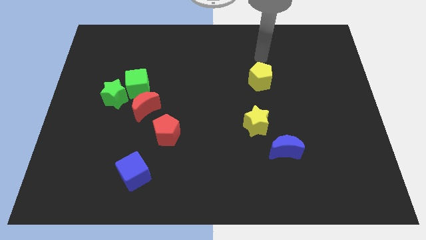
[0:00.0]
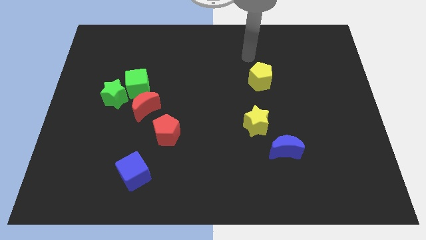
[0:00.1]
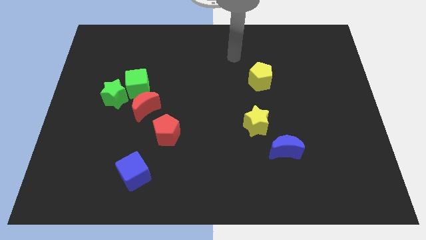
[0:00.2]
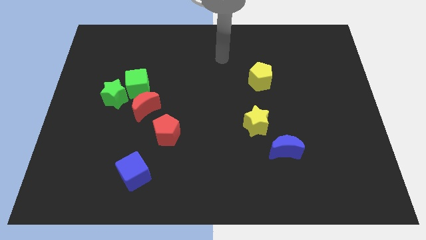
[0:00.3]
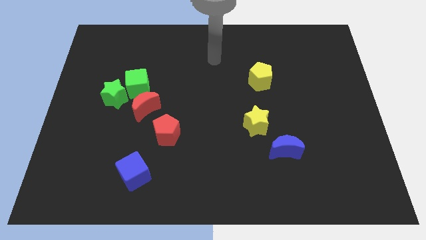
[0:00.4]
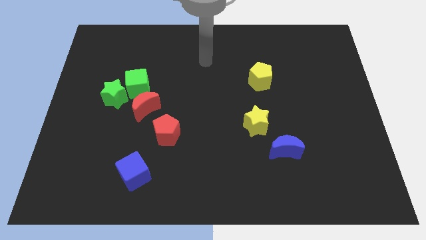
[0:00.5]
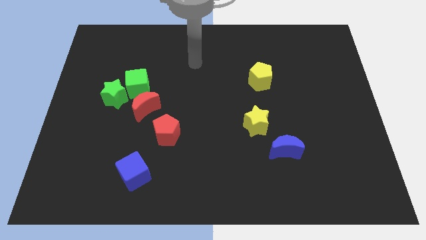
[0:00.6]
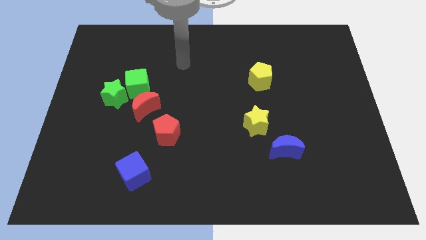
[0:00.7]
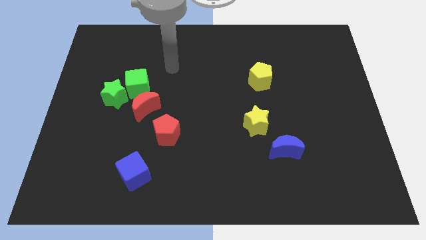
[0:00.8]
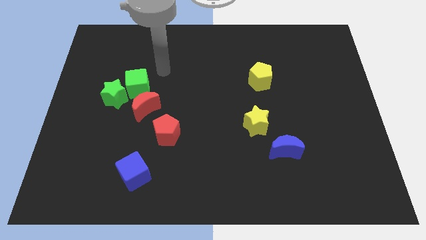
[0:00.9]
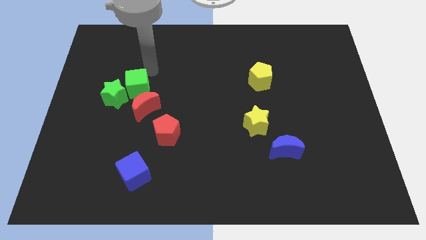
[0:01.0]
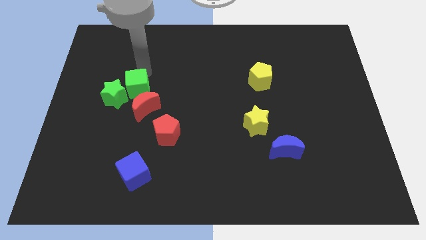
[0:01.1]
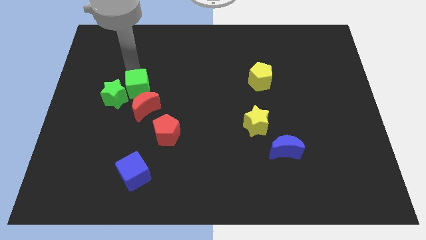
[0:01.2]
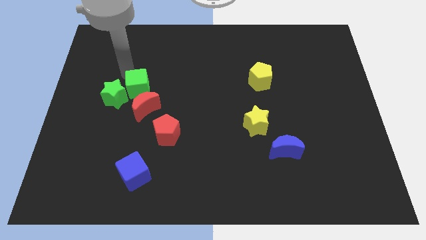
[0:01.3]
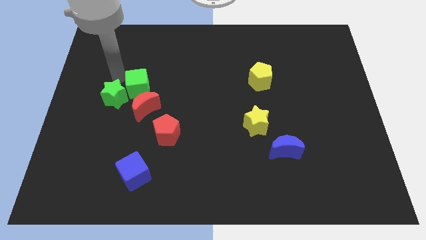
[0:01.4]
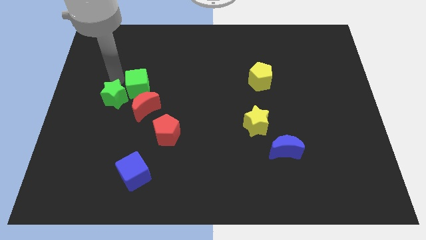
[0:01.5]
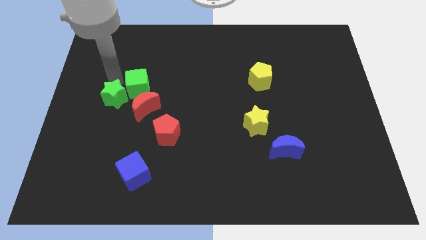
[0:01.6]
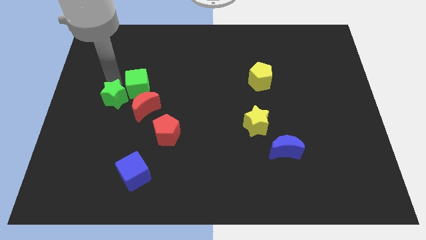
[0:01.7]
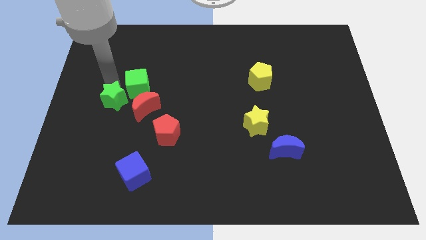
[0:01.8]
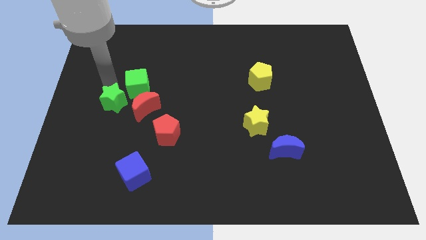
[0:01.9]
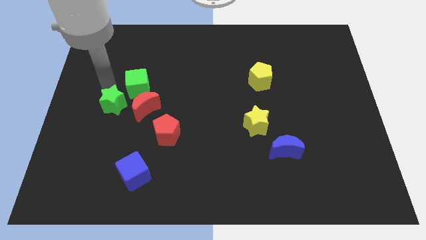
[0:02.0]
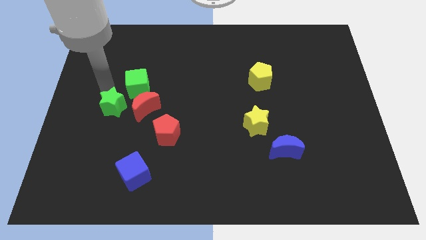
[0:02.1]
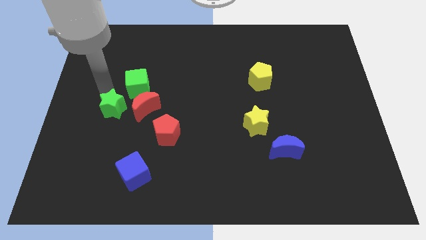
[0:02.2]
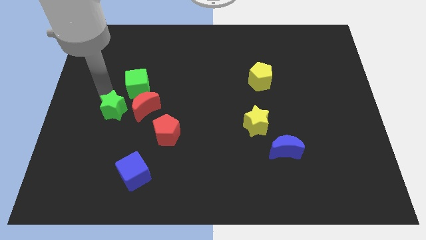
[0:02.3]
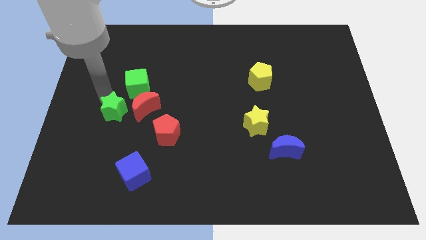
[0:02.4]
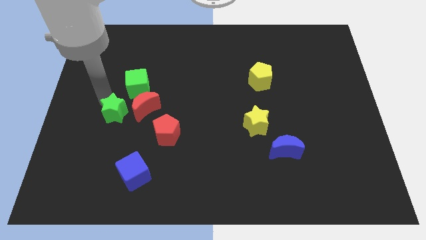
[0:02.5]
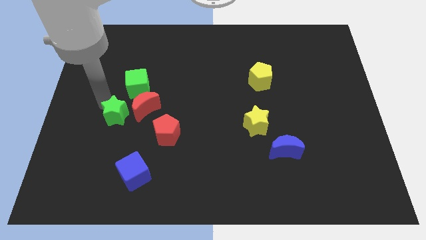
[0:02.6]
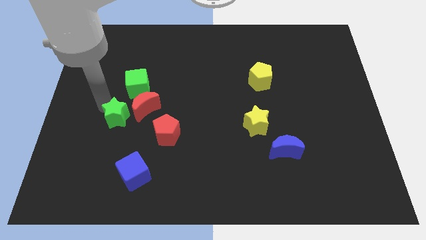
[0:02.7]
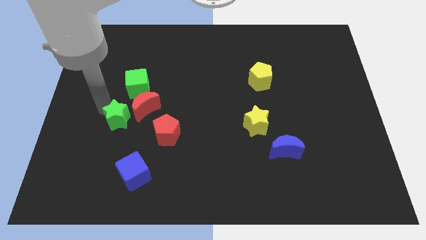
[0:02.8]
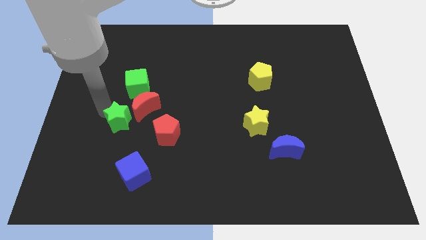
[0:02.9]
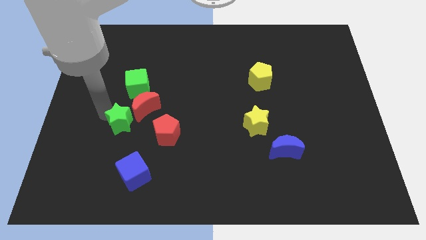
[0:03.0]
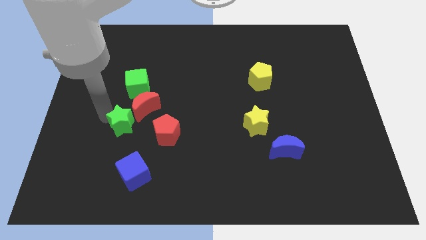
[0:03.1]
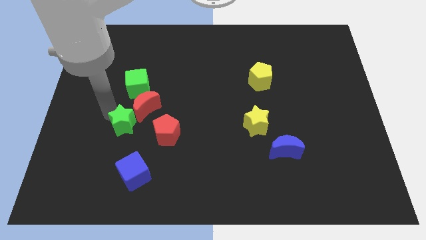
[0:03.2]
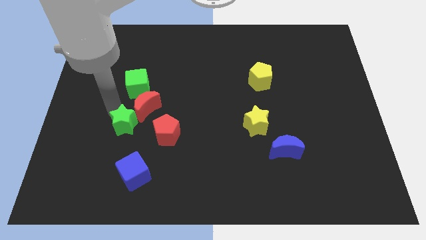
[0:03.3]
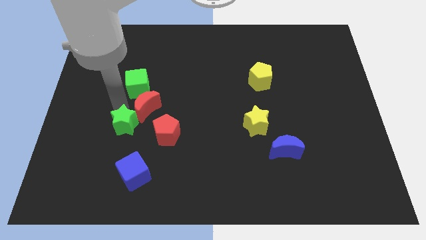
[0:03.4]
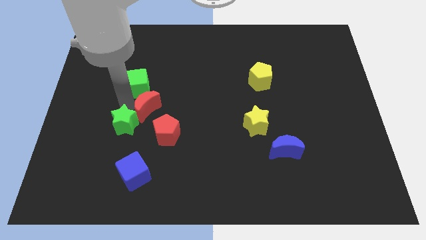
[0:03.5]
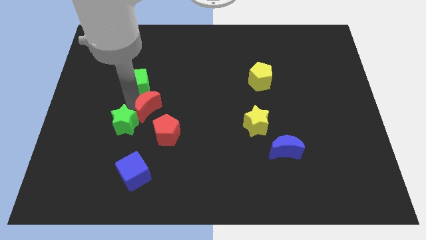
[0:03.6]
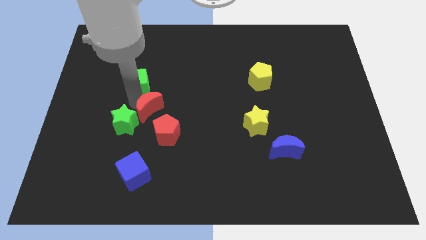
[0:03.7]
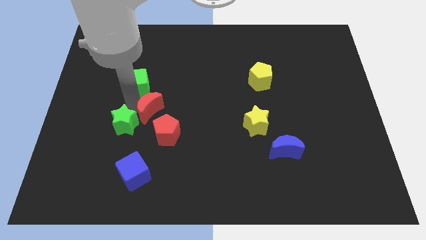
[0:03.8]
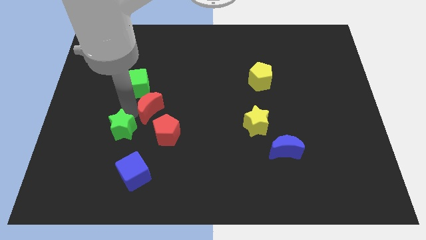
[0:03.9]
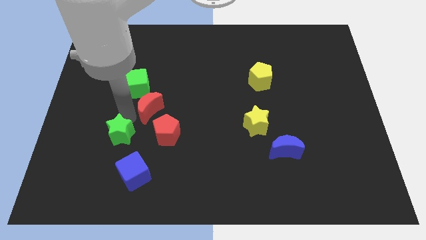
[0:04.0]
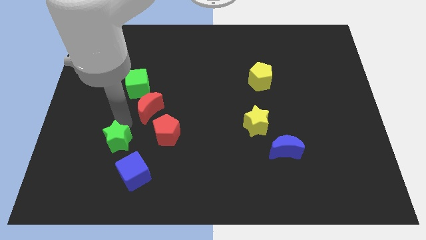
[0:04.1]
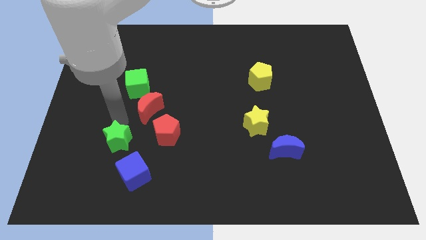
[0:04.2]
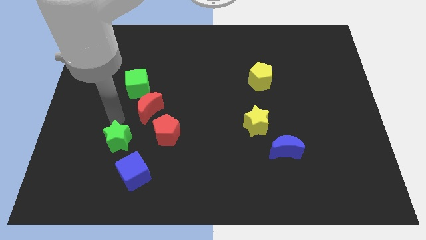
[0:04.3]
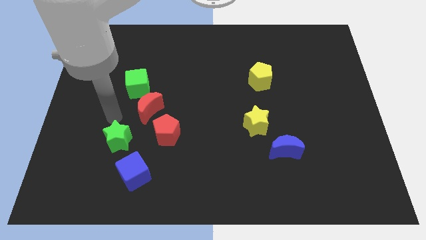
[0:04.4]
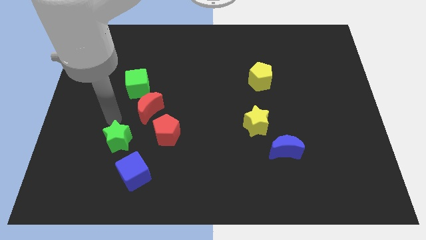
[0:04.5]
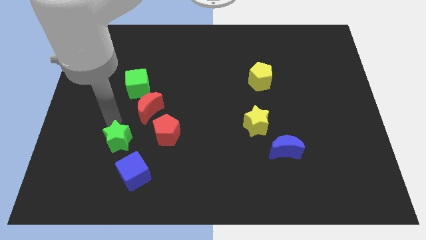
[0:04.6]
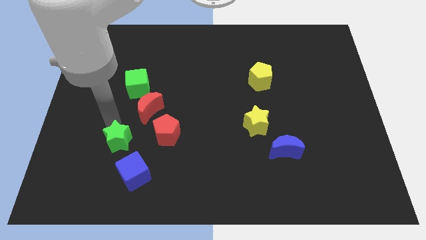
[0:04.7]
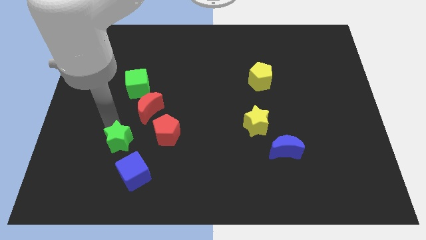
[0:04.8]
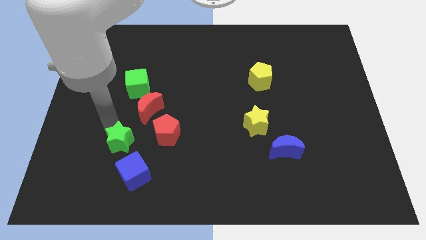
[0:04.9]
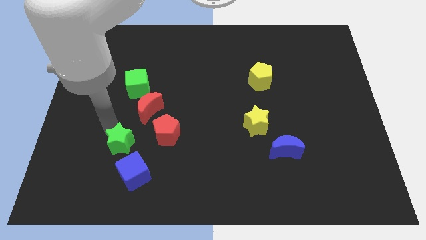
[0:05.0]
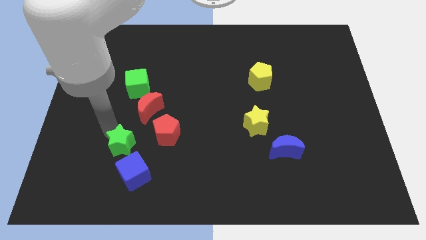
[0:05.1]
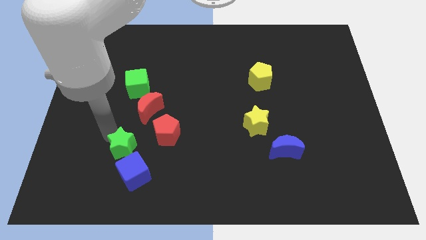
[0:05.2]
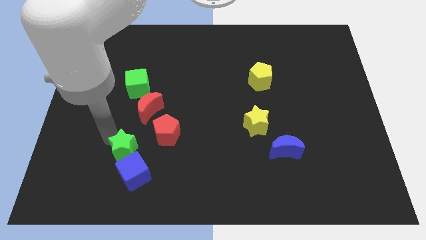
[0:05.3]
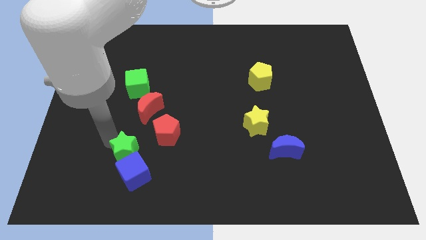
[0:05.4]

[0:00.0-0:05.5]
push the green star next to the blue cube

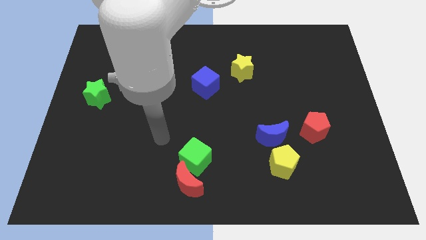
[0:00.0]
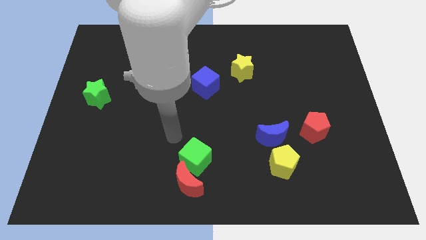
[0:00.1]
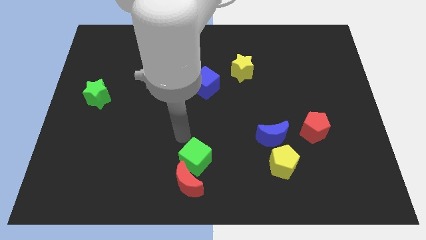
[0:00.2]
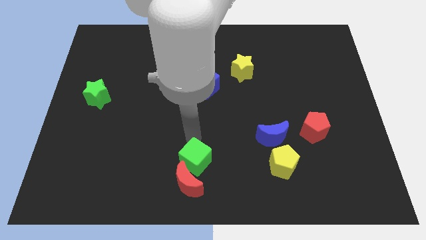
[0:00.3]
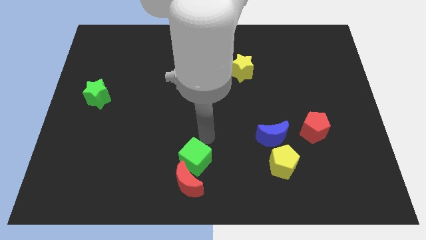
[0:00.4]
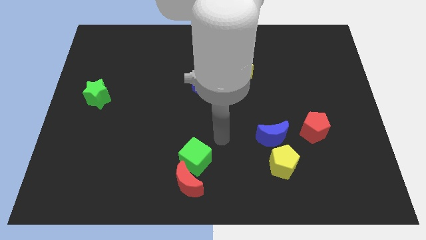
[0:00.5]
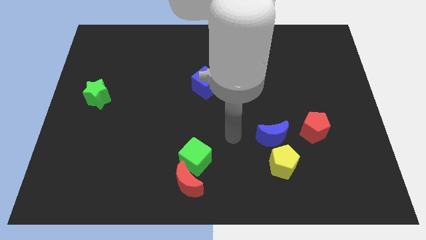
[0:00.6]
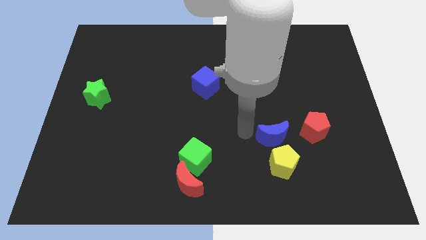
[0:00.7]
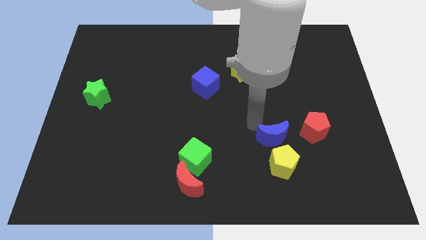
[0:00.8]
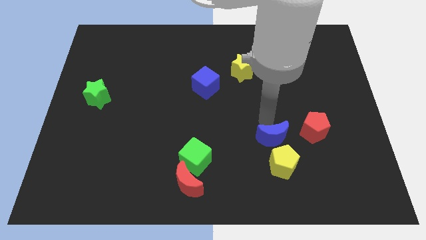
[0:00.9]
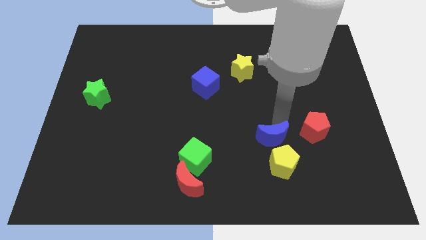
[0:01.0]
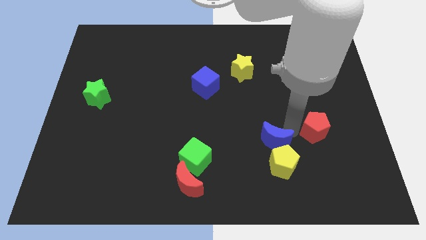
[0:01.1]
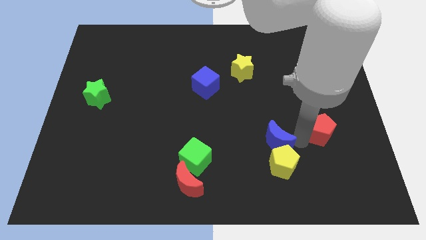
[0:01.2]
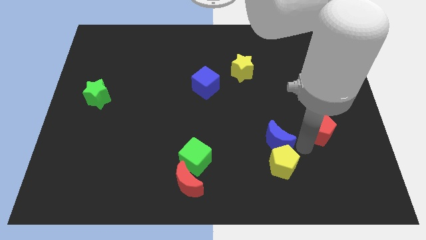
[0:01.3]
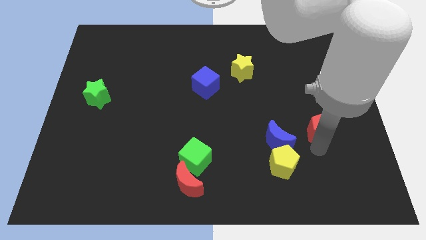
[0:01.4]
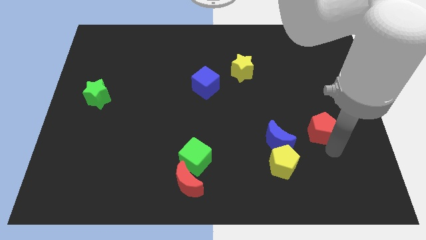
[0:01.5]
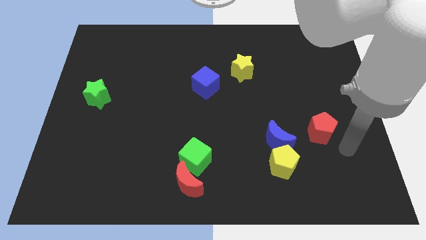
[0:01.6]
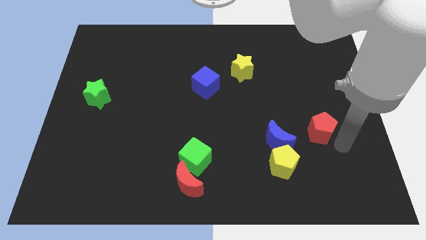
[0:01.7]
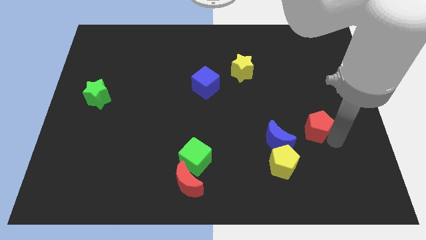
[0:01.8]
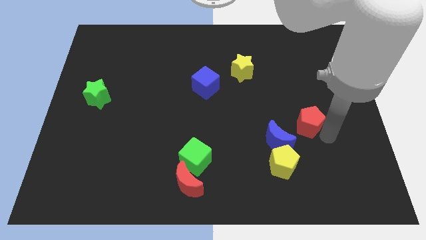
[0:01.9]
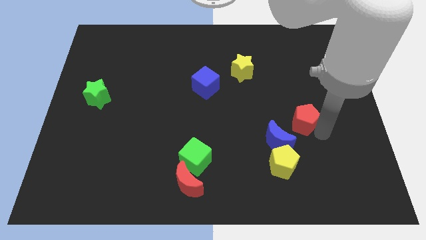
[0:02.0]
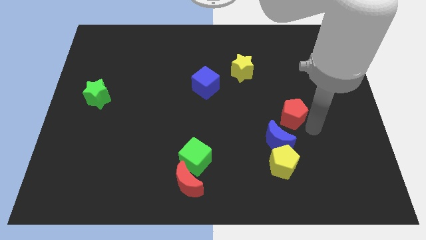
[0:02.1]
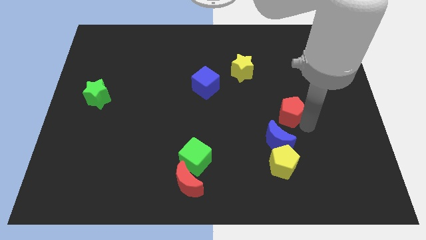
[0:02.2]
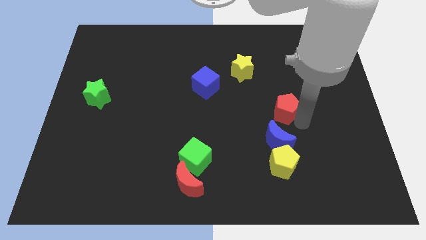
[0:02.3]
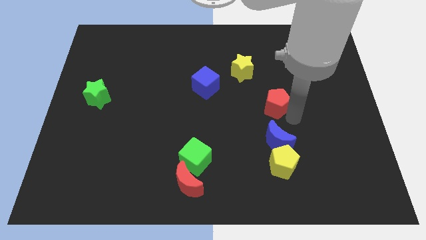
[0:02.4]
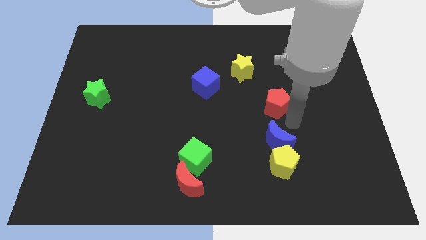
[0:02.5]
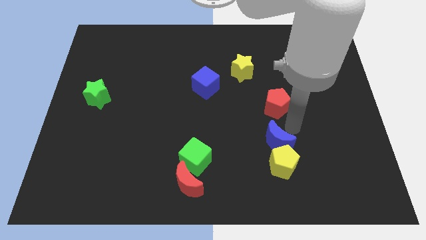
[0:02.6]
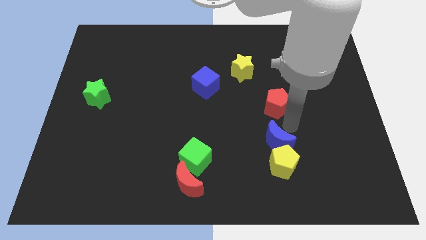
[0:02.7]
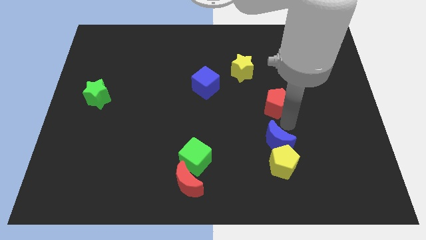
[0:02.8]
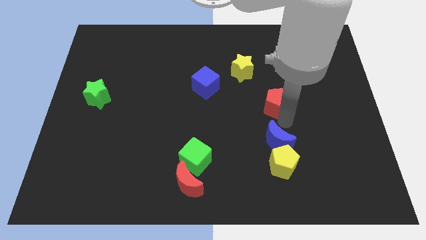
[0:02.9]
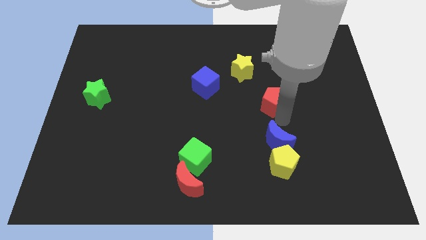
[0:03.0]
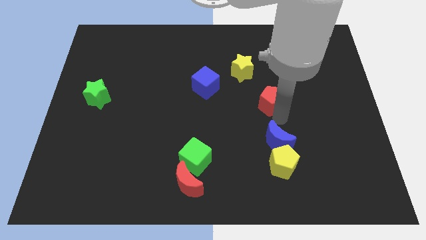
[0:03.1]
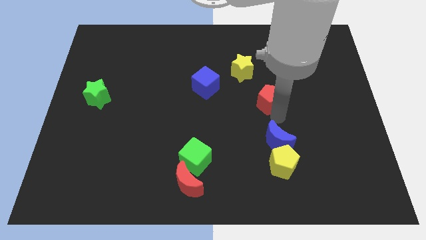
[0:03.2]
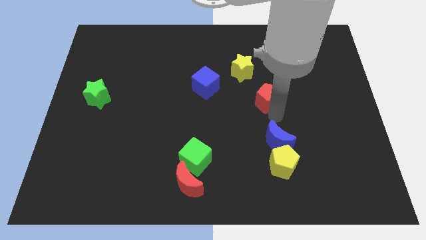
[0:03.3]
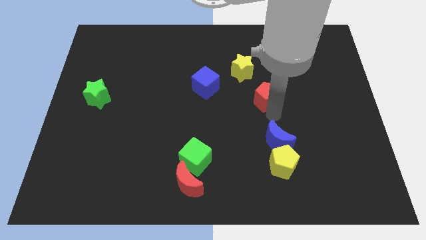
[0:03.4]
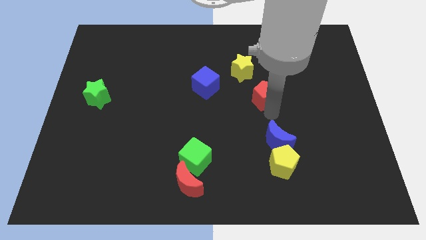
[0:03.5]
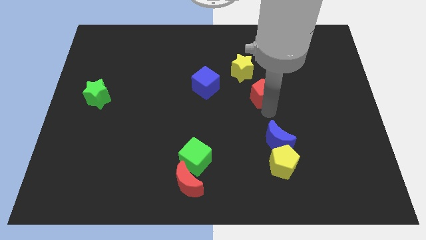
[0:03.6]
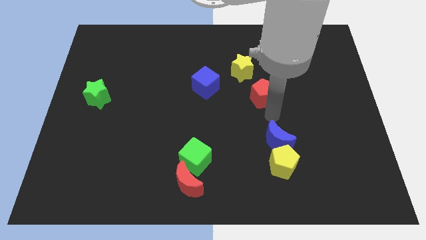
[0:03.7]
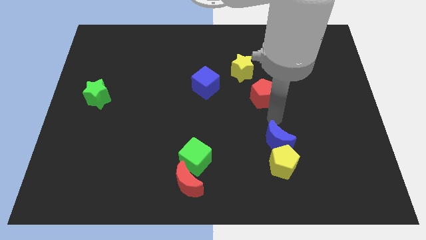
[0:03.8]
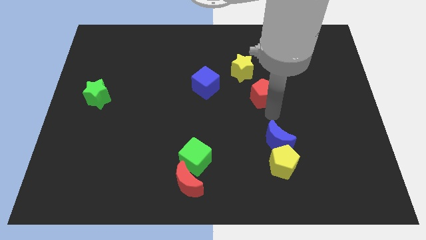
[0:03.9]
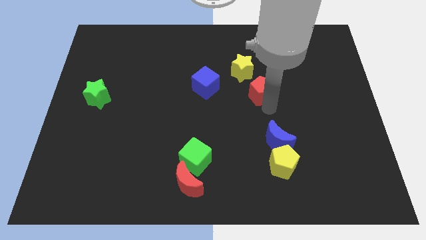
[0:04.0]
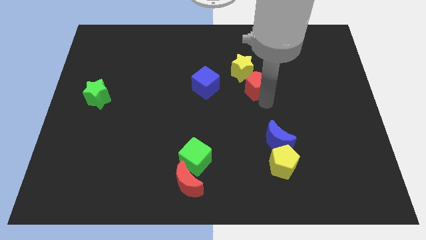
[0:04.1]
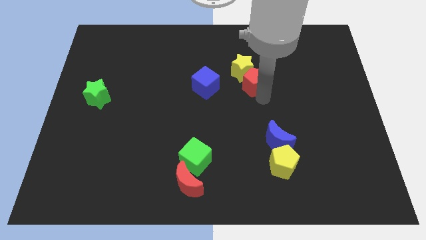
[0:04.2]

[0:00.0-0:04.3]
move the red pentagon to the yellow star
